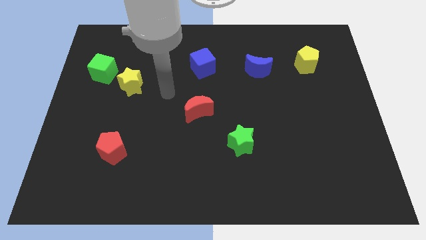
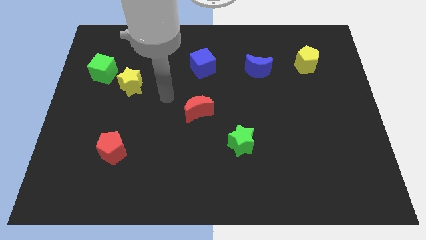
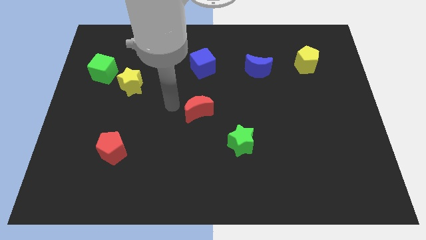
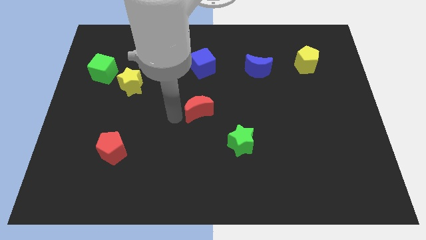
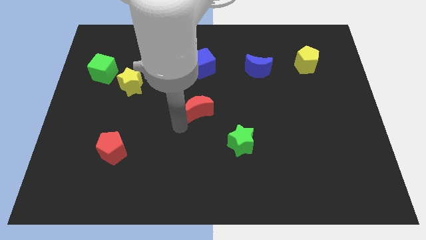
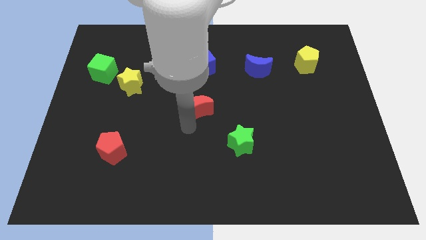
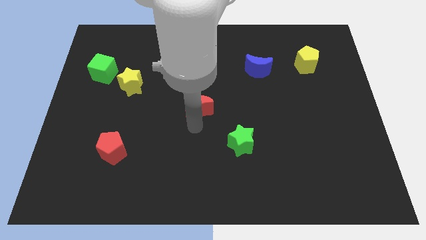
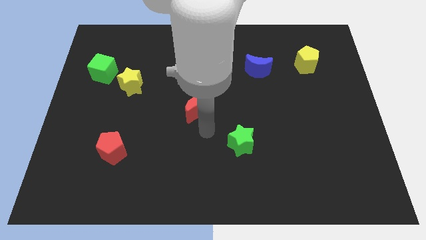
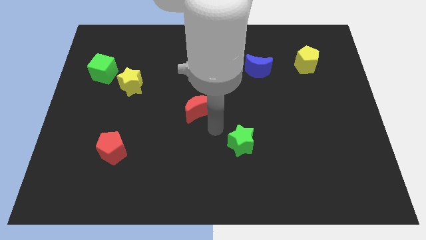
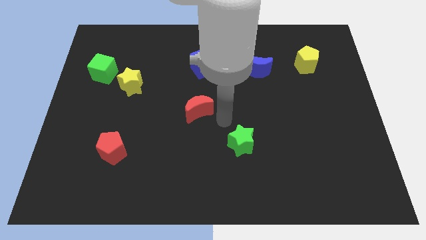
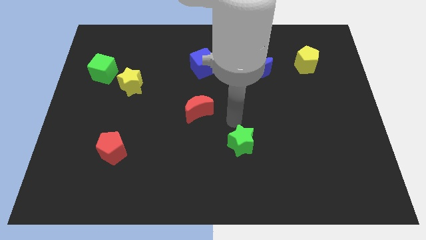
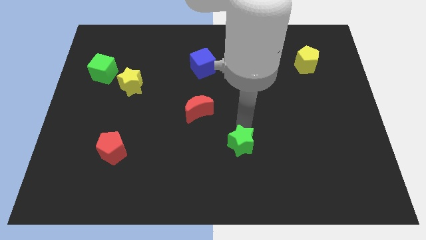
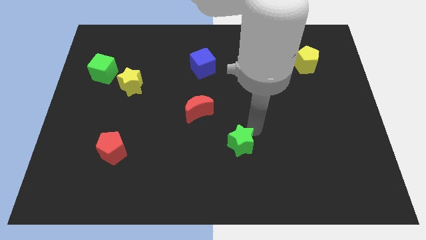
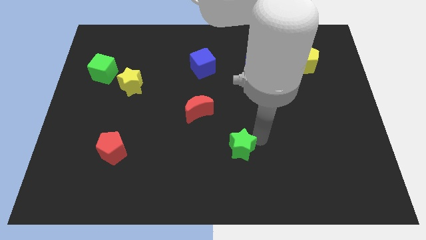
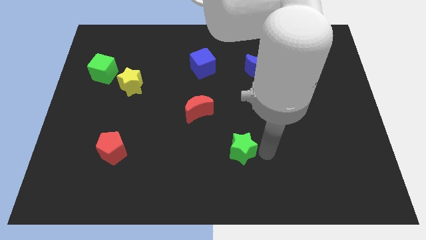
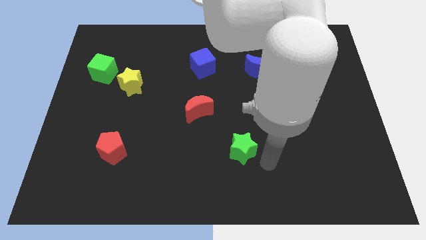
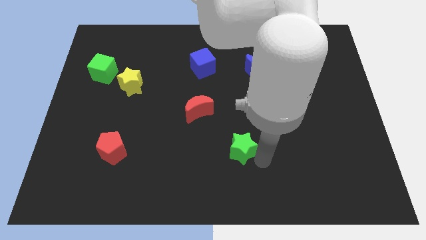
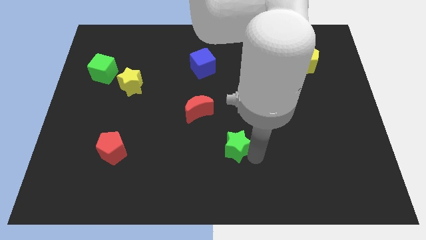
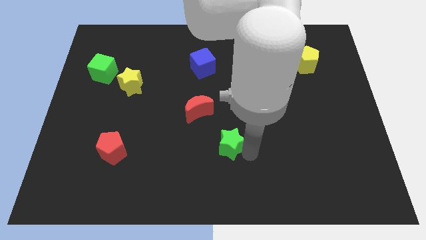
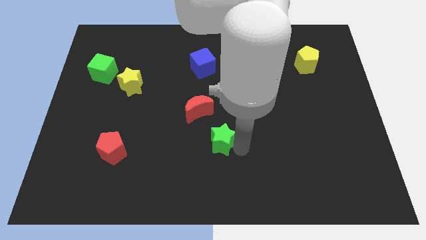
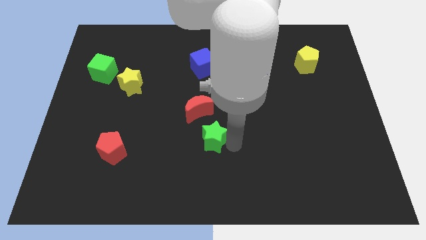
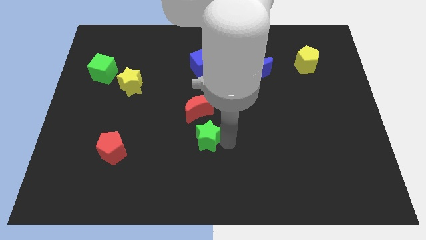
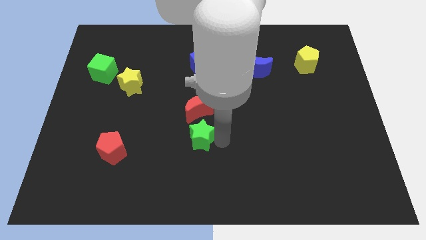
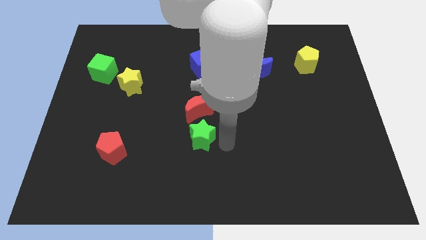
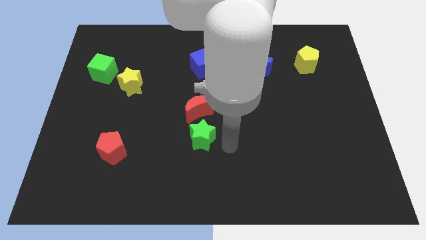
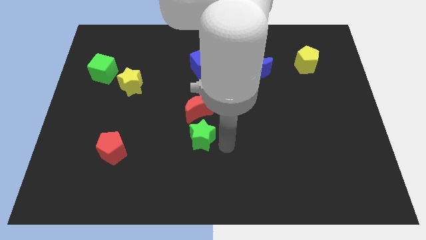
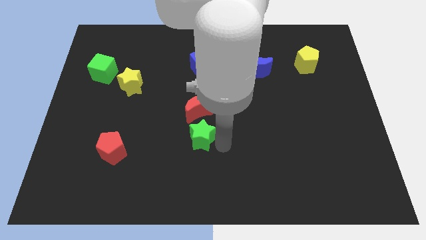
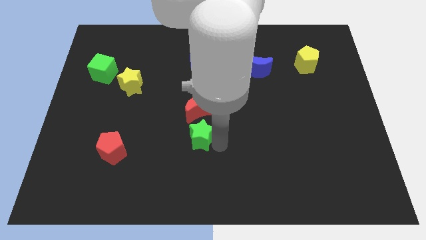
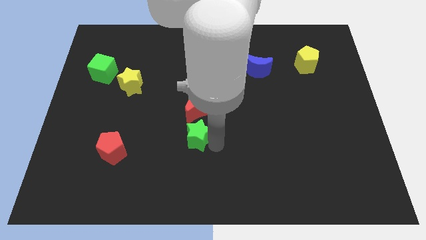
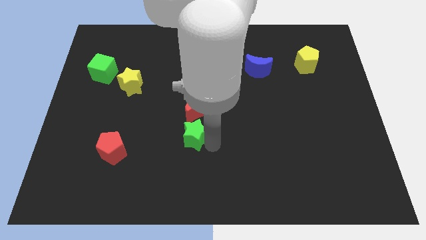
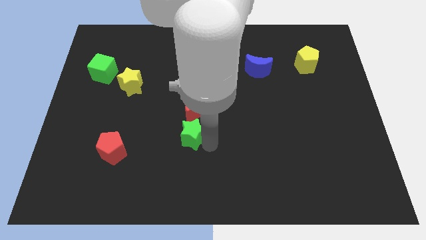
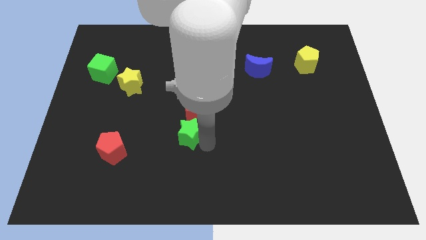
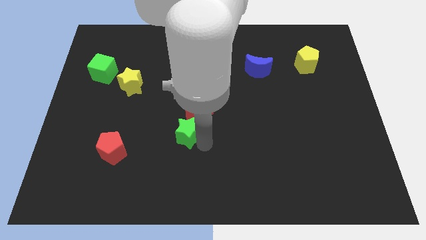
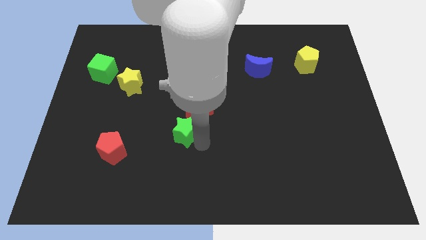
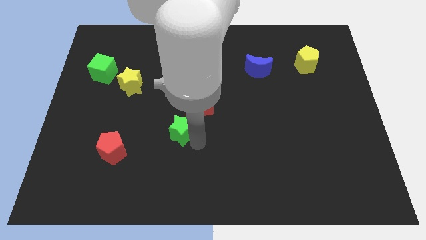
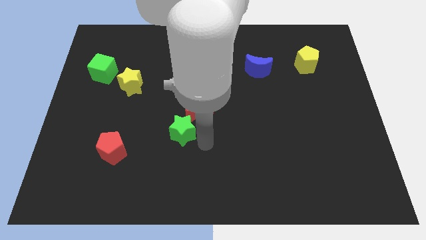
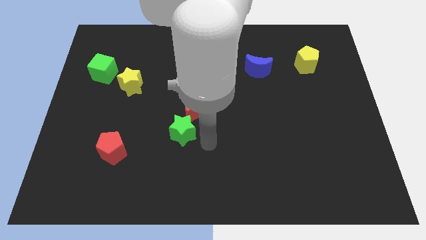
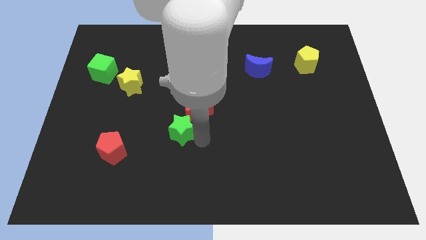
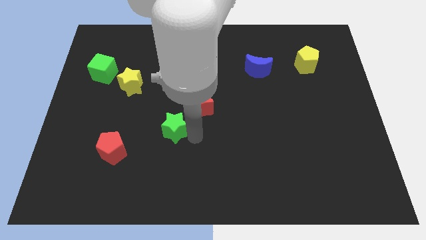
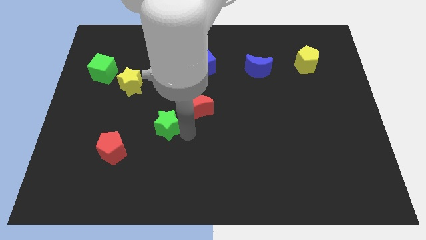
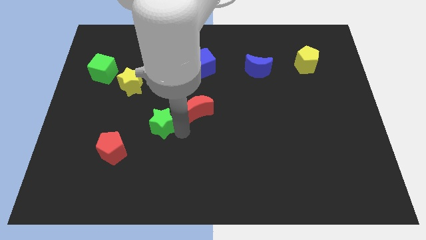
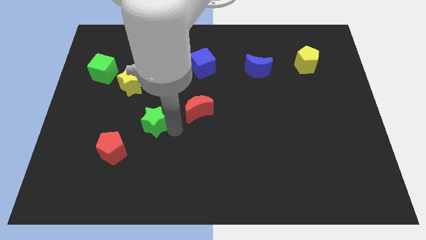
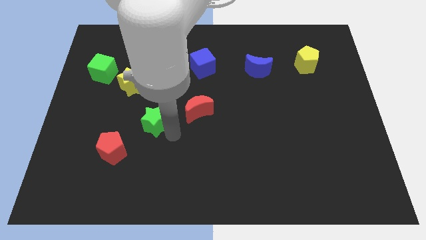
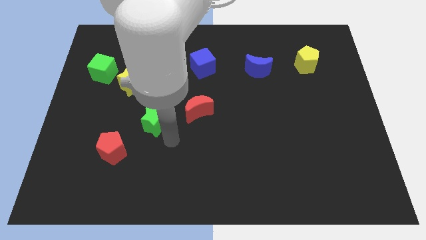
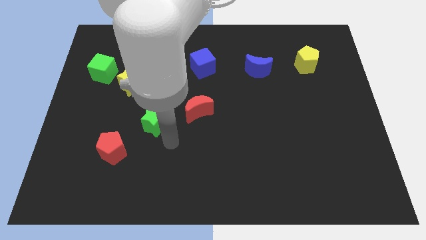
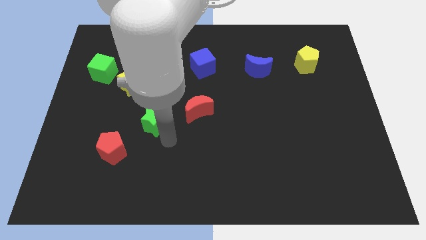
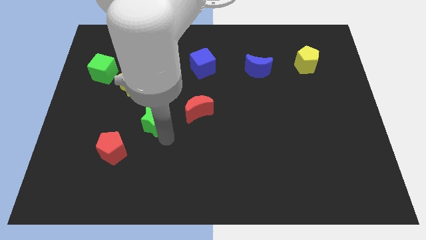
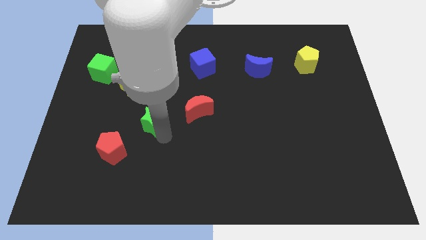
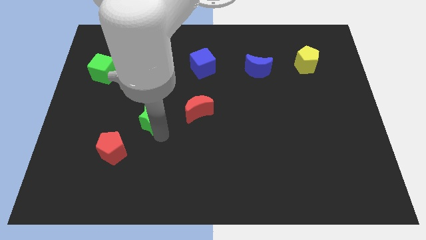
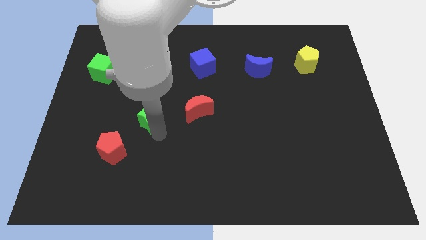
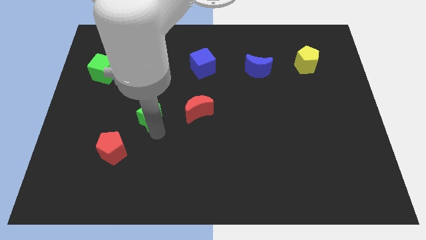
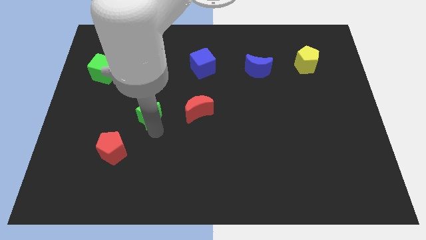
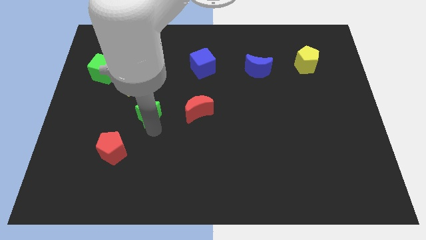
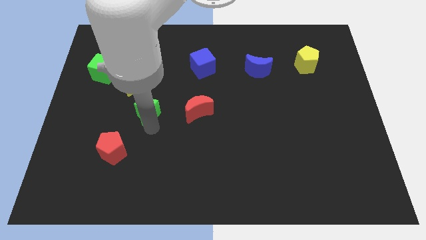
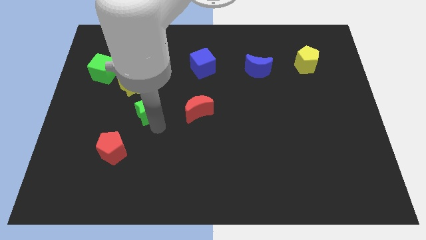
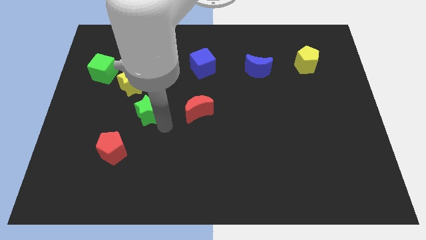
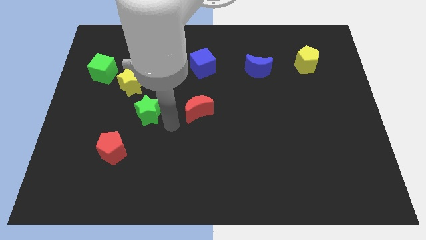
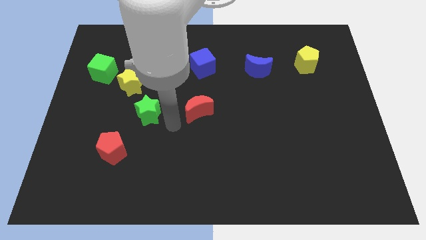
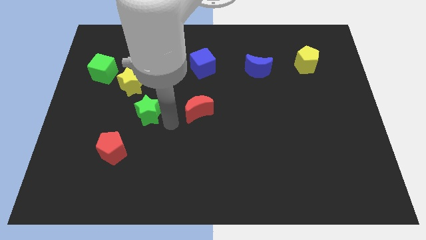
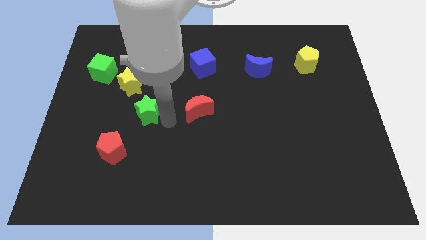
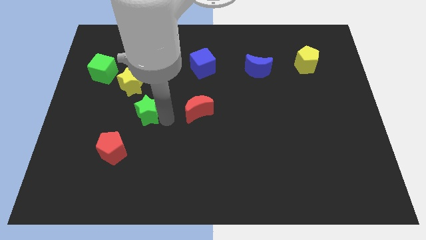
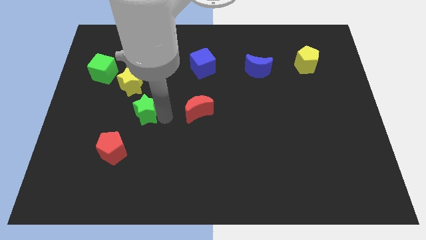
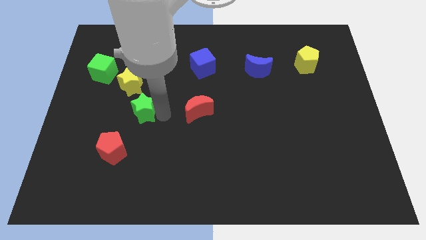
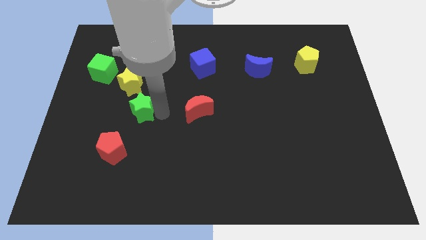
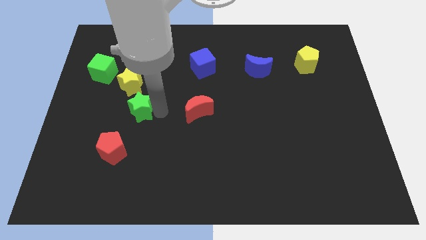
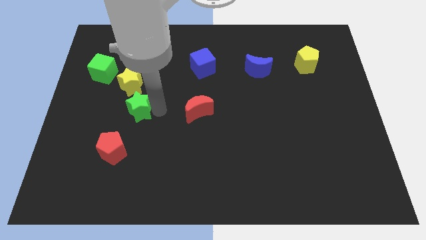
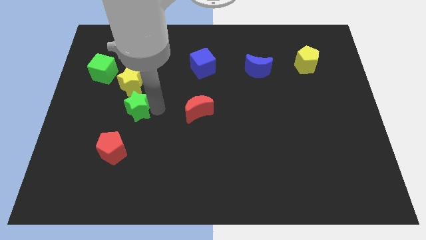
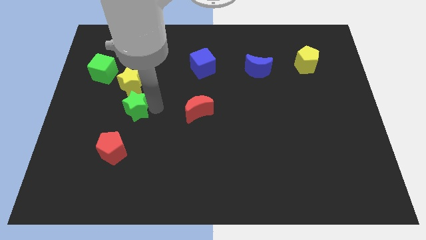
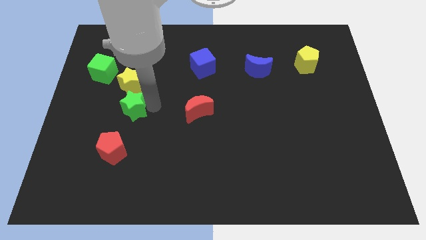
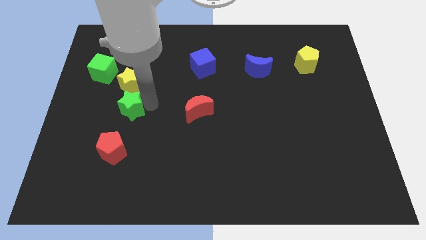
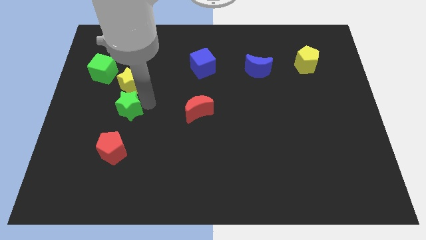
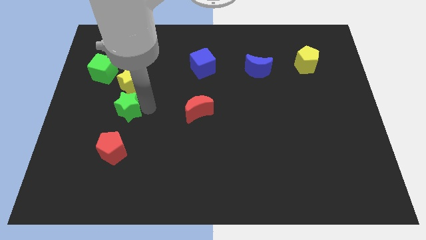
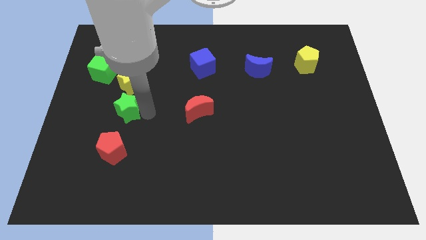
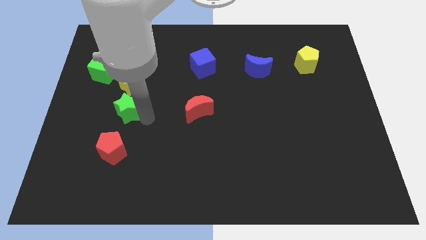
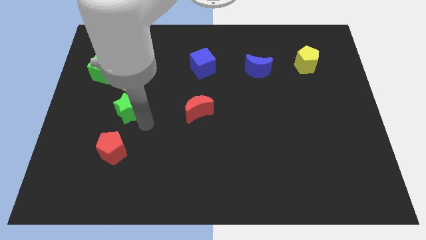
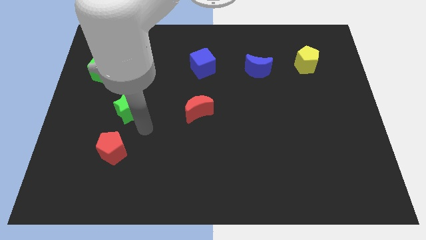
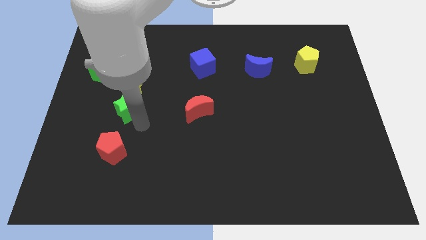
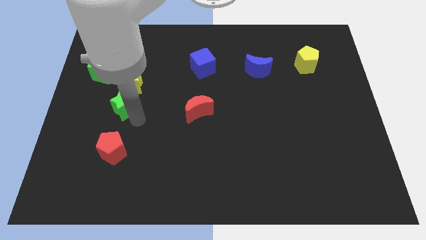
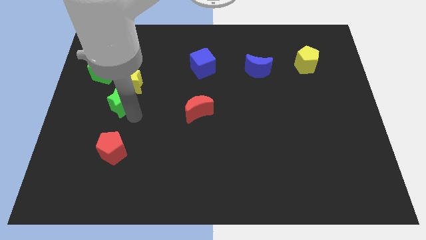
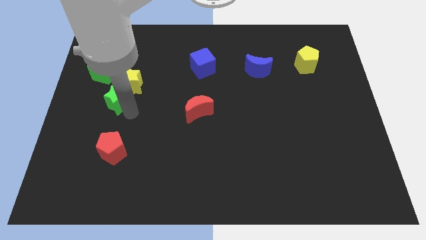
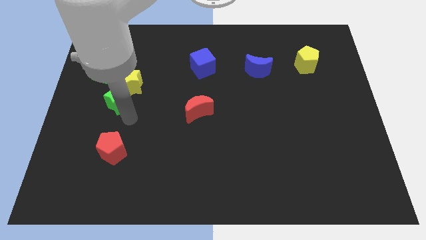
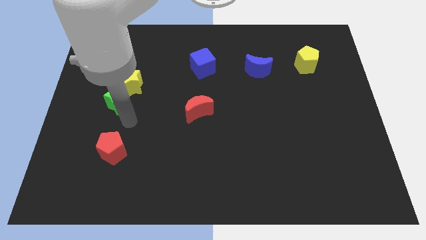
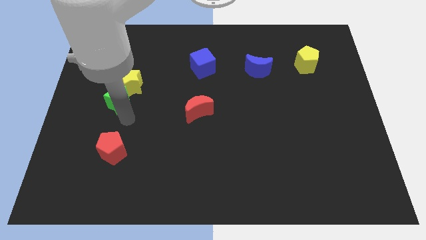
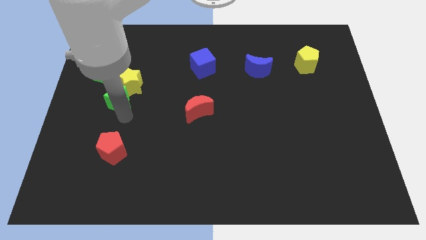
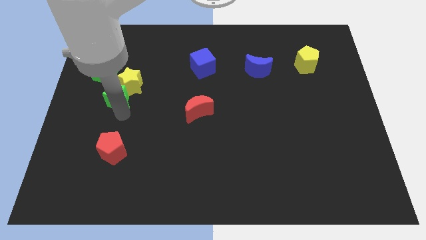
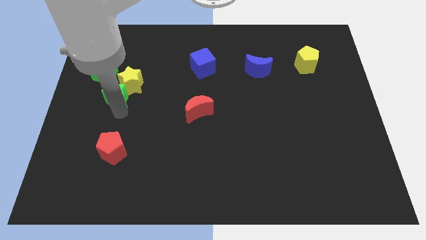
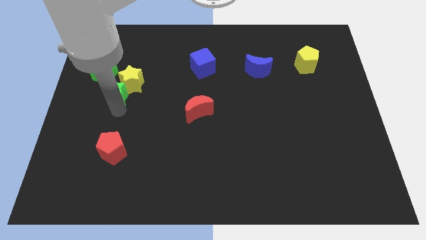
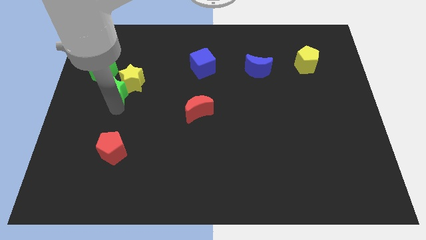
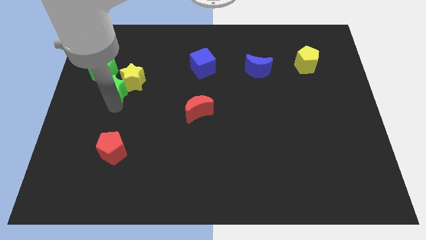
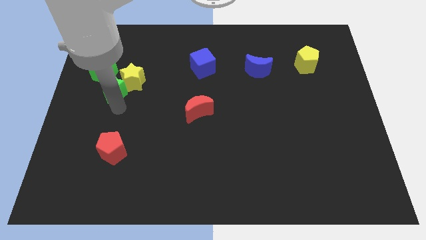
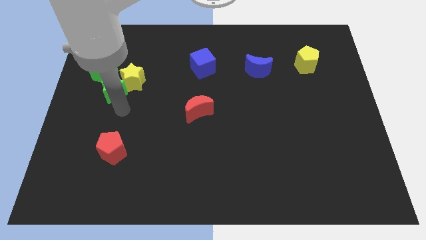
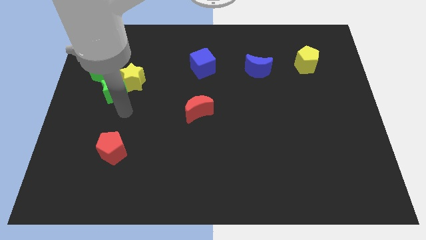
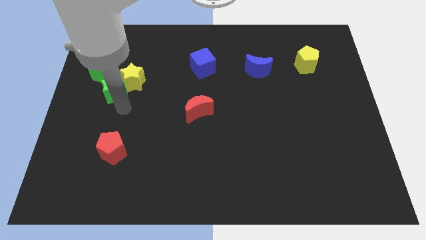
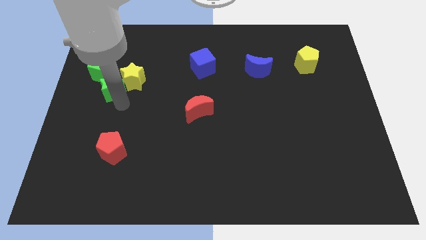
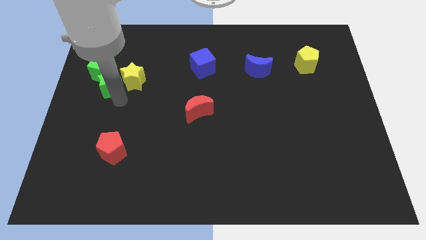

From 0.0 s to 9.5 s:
push the green star close to the green cube
